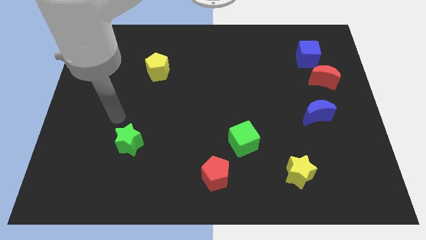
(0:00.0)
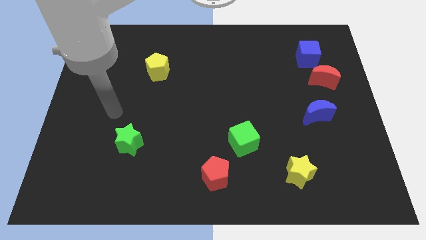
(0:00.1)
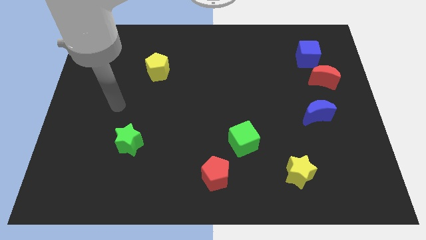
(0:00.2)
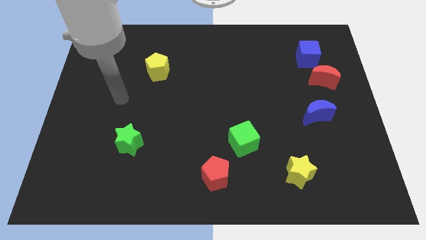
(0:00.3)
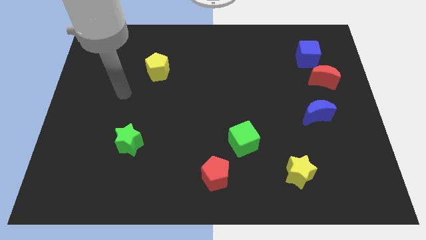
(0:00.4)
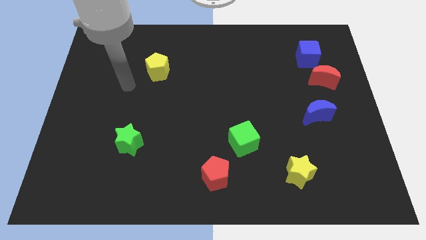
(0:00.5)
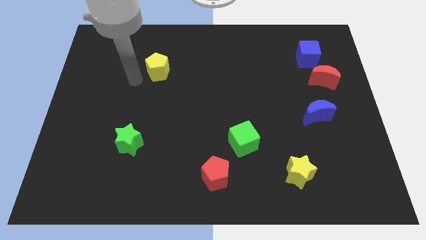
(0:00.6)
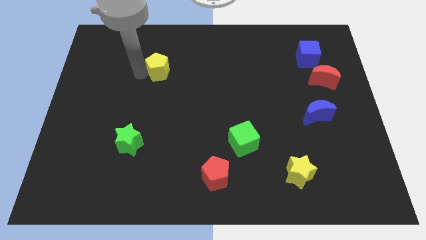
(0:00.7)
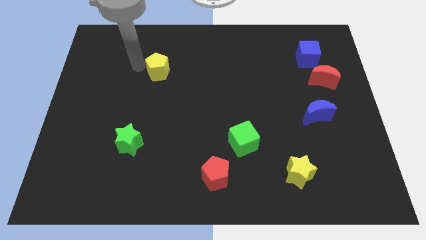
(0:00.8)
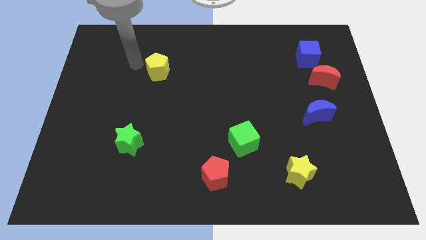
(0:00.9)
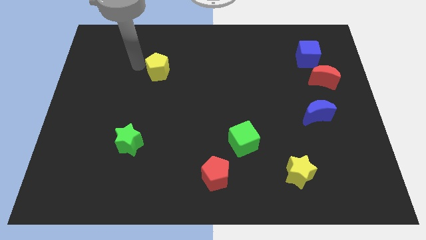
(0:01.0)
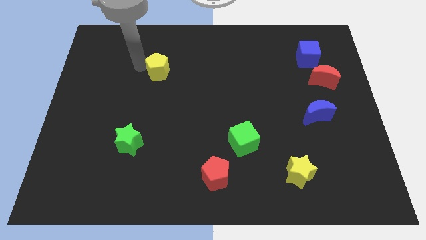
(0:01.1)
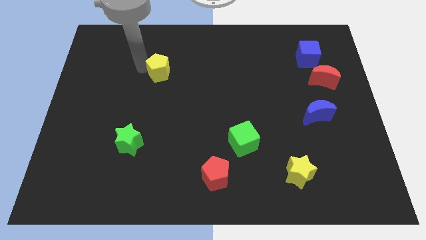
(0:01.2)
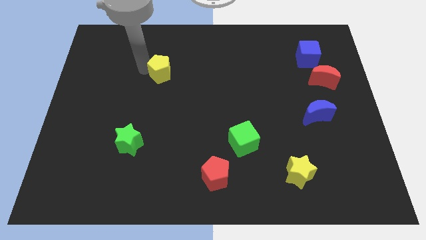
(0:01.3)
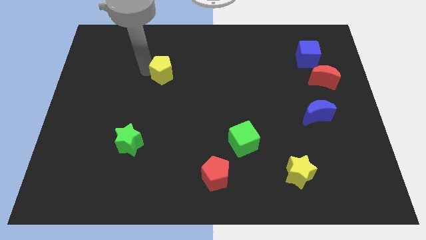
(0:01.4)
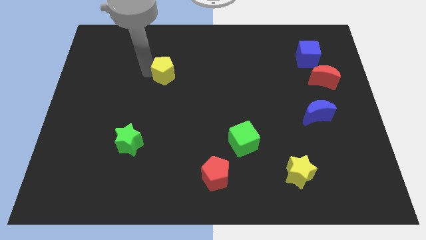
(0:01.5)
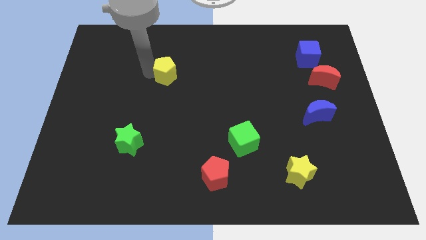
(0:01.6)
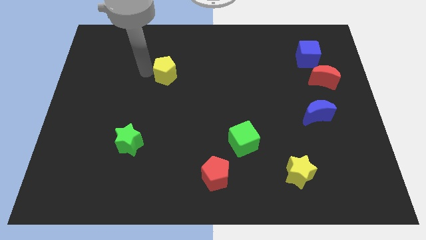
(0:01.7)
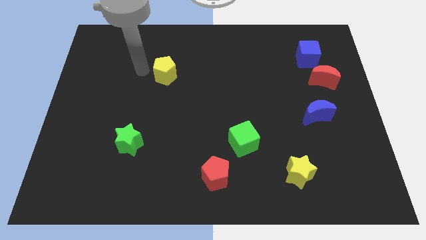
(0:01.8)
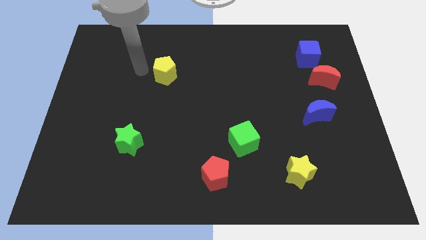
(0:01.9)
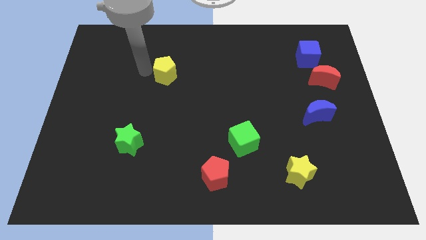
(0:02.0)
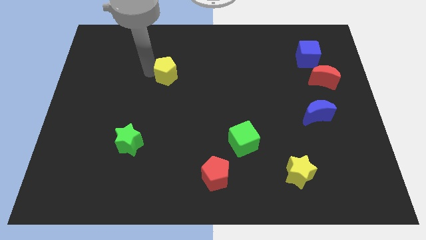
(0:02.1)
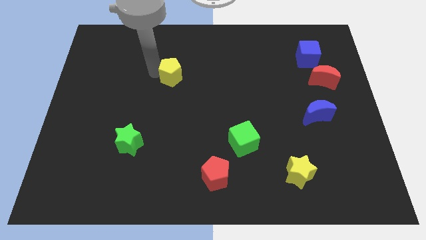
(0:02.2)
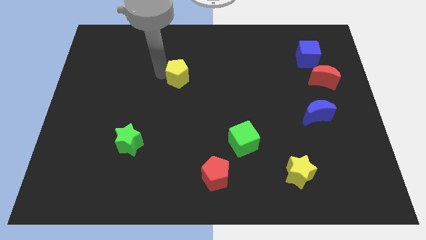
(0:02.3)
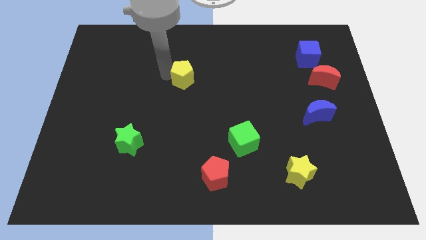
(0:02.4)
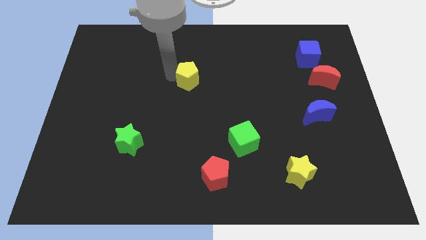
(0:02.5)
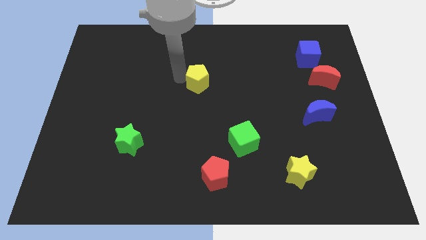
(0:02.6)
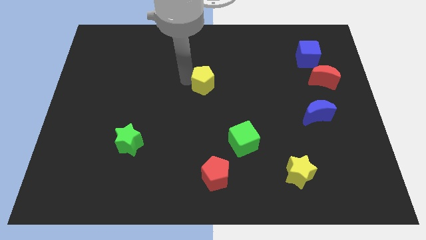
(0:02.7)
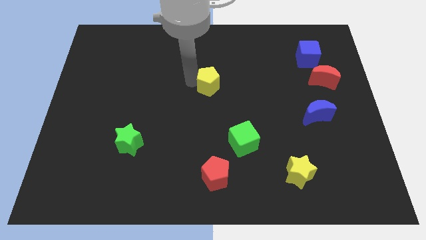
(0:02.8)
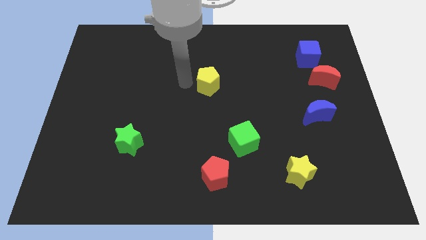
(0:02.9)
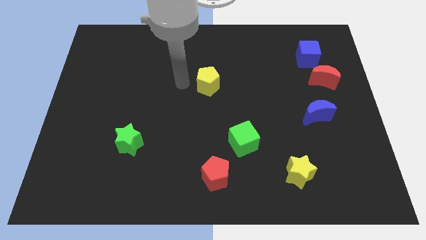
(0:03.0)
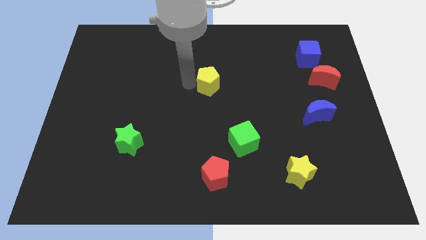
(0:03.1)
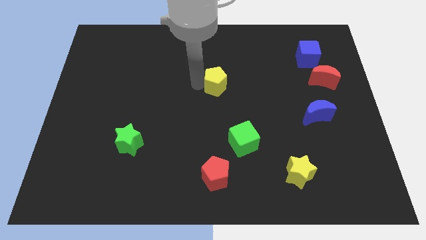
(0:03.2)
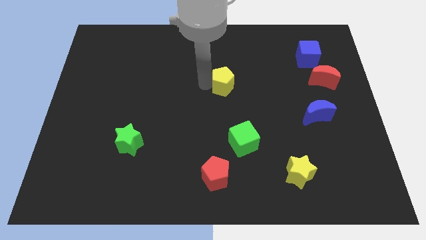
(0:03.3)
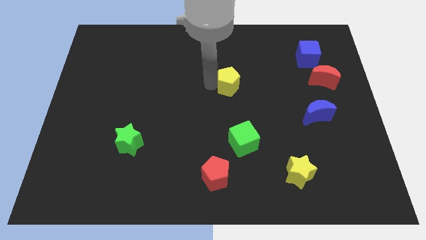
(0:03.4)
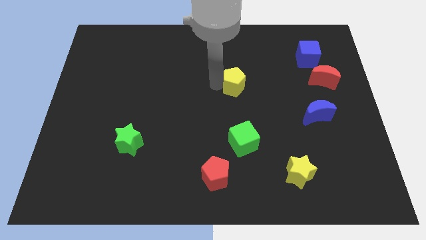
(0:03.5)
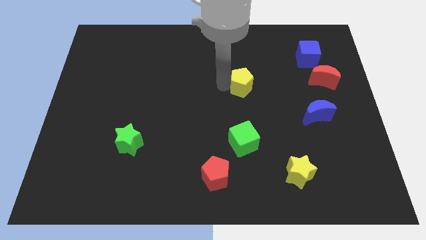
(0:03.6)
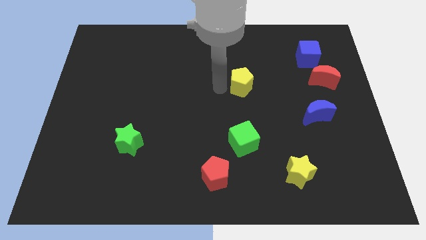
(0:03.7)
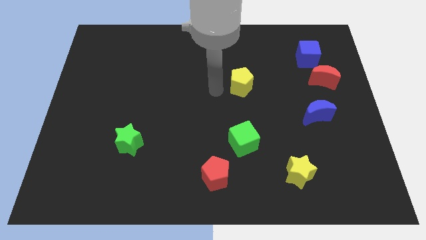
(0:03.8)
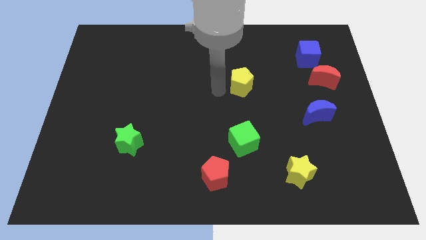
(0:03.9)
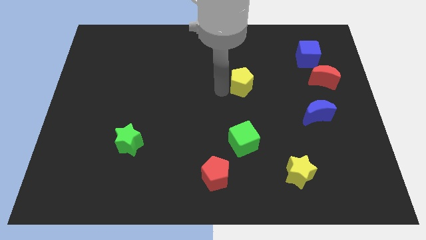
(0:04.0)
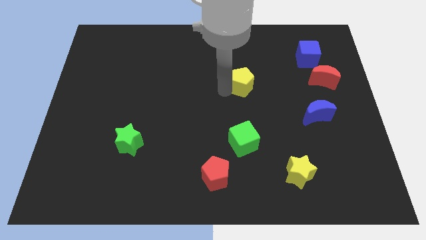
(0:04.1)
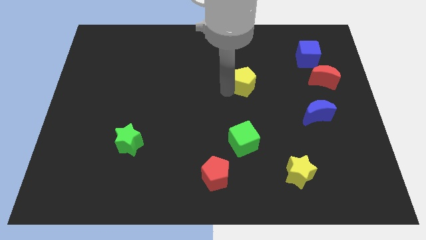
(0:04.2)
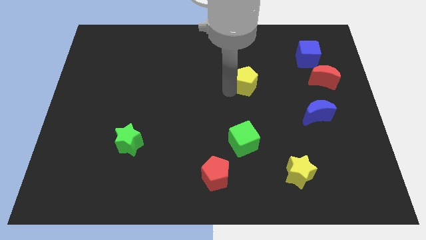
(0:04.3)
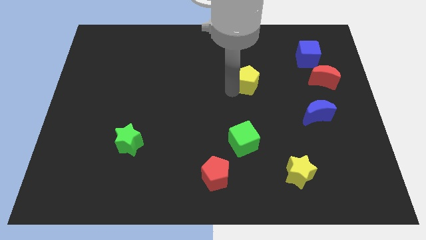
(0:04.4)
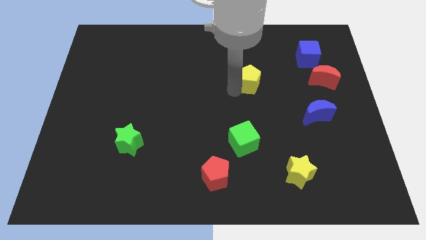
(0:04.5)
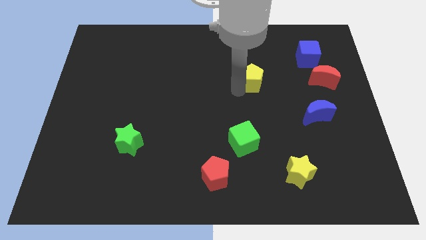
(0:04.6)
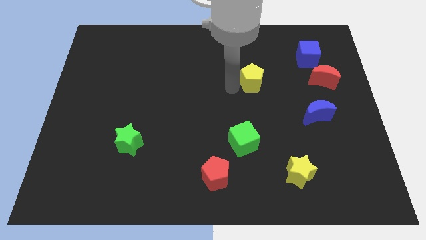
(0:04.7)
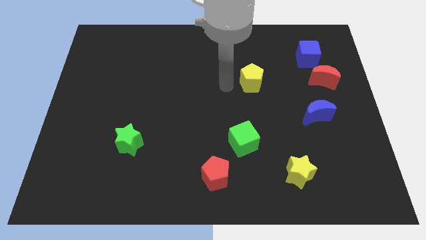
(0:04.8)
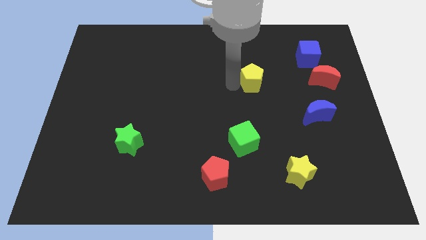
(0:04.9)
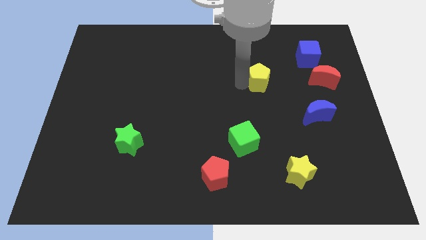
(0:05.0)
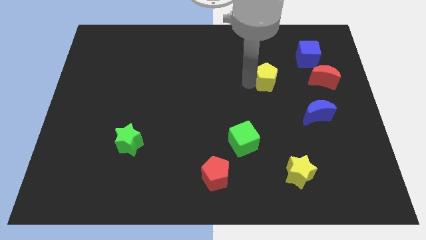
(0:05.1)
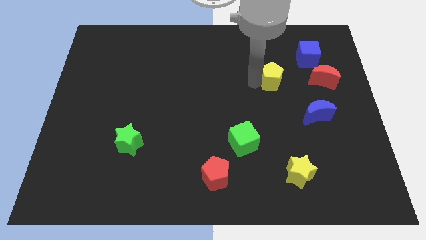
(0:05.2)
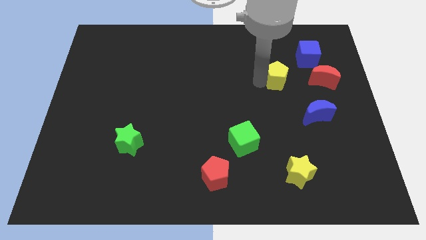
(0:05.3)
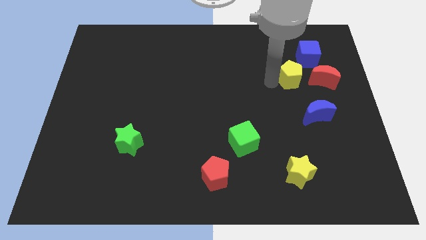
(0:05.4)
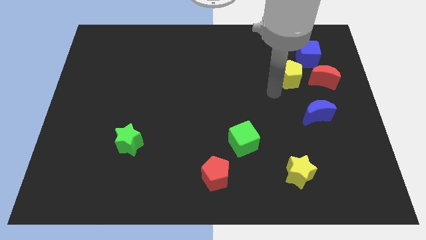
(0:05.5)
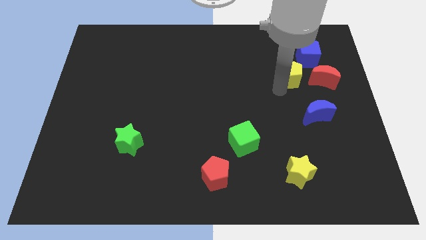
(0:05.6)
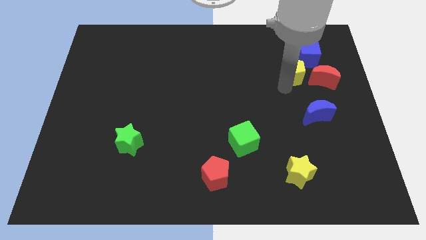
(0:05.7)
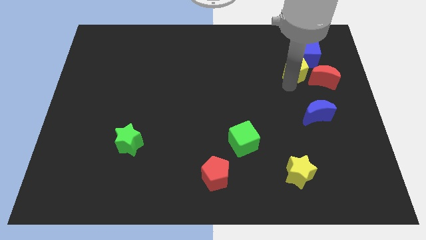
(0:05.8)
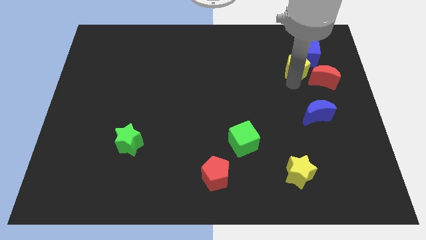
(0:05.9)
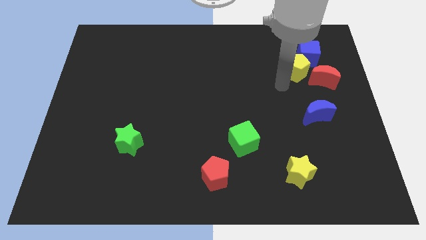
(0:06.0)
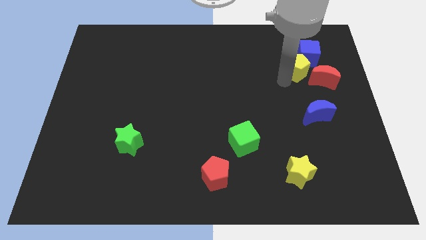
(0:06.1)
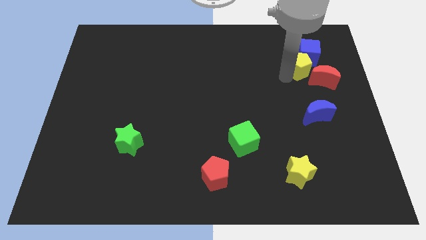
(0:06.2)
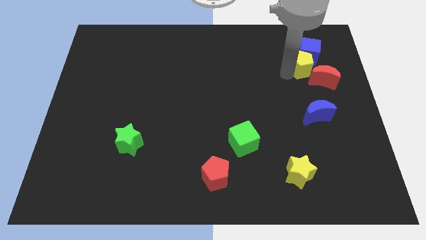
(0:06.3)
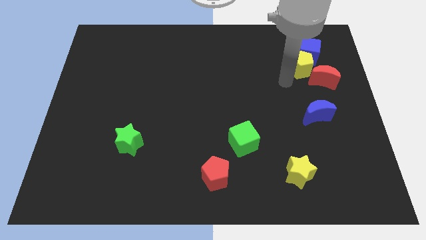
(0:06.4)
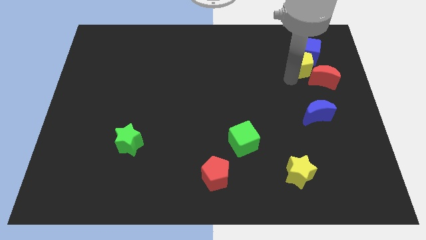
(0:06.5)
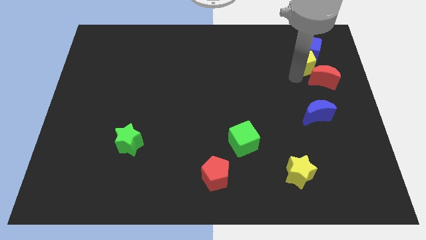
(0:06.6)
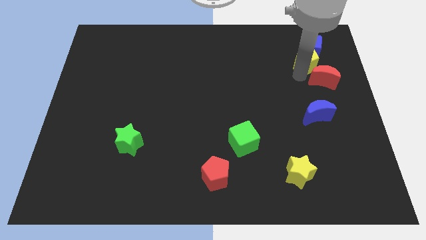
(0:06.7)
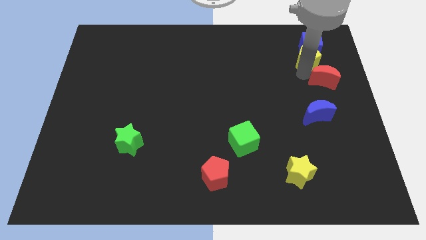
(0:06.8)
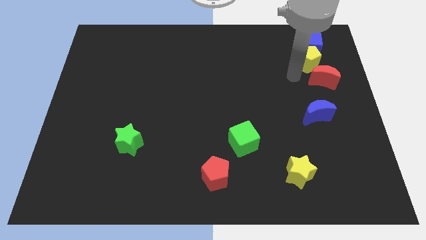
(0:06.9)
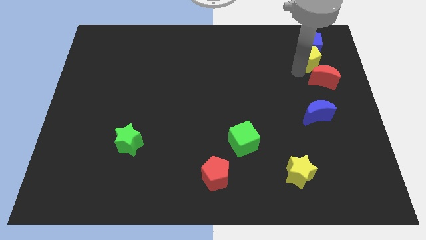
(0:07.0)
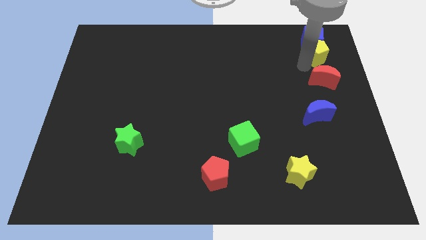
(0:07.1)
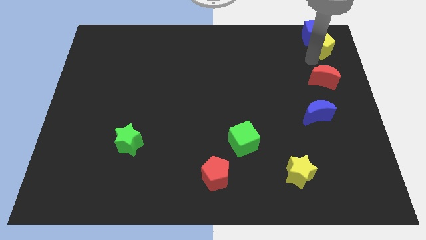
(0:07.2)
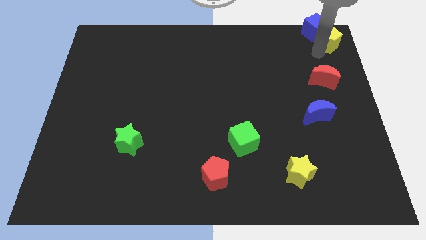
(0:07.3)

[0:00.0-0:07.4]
put the yellow pentagon to the upper right corner
